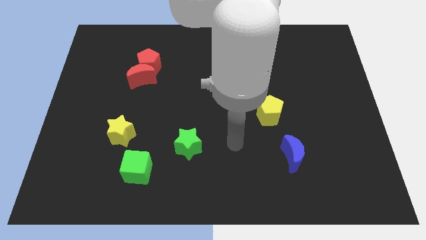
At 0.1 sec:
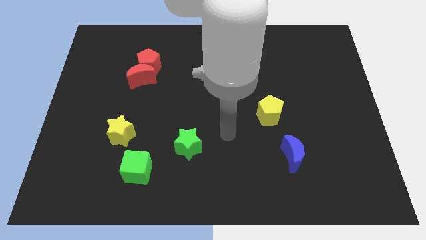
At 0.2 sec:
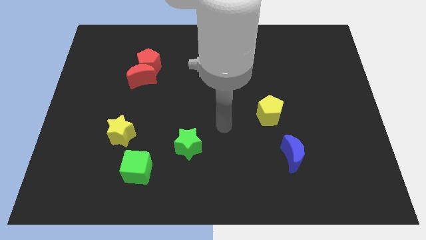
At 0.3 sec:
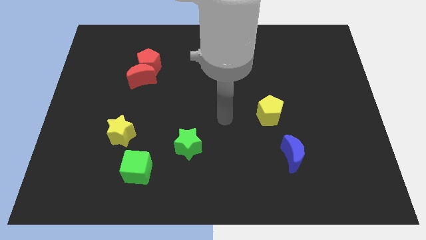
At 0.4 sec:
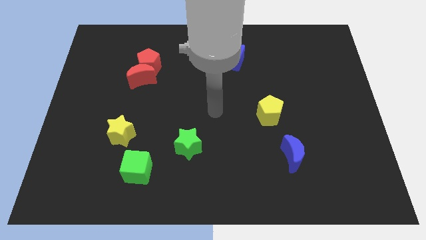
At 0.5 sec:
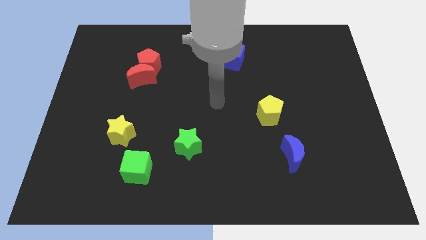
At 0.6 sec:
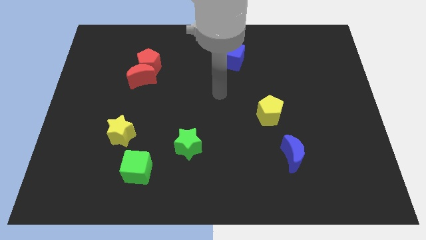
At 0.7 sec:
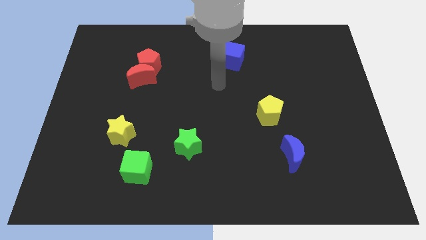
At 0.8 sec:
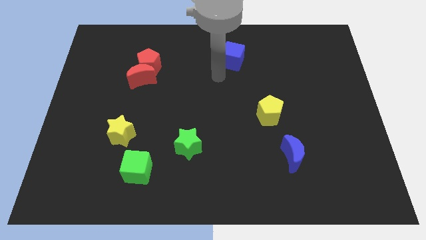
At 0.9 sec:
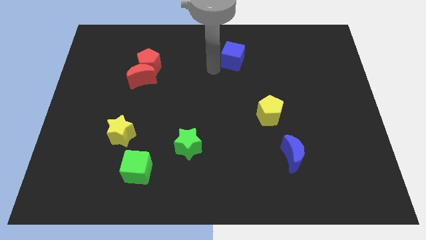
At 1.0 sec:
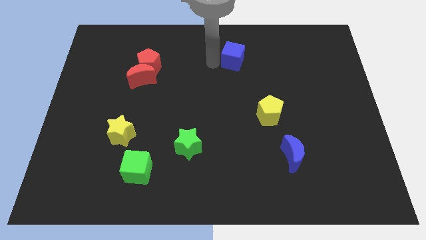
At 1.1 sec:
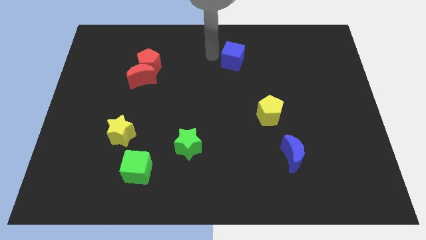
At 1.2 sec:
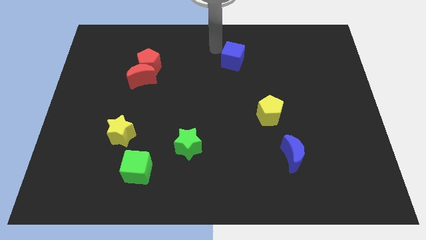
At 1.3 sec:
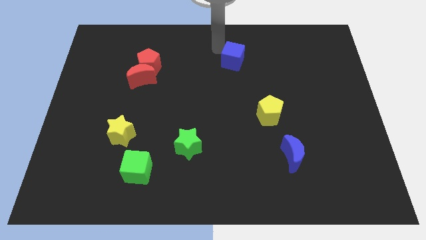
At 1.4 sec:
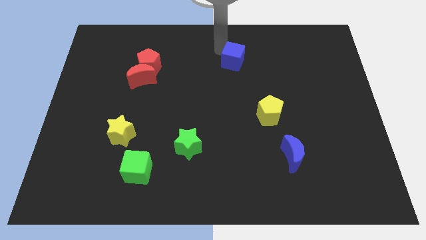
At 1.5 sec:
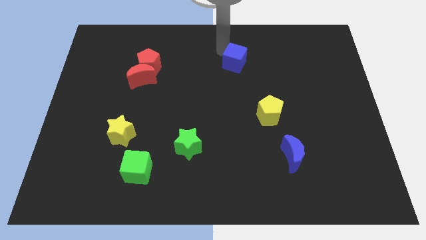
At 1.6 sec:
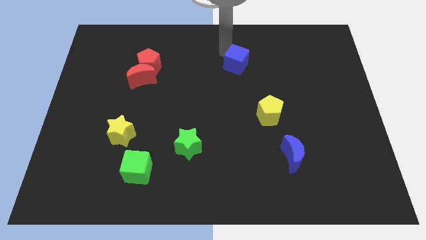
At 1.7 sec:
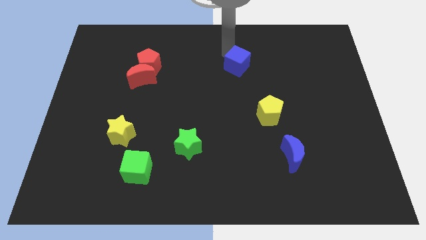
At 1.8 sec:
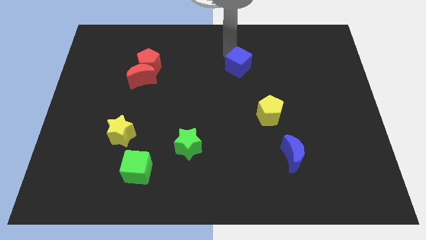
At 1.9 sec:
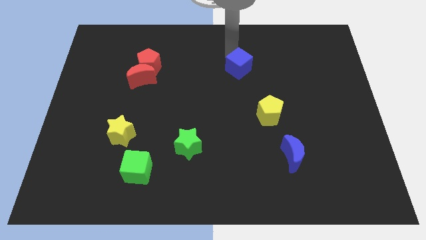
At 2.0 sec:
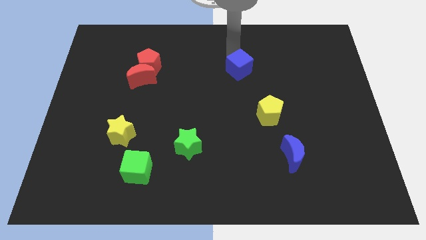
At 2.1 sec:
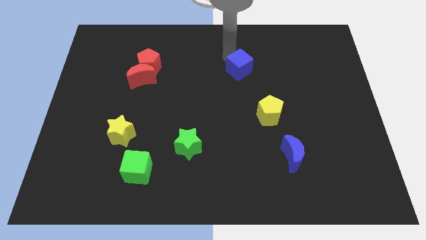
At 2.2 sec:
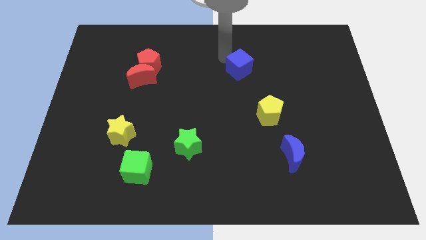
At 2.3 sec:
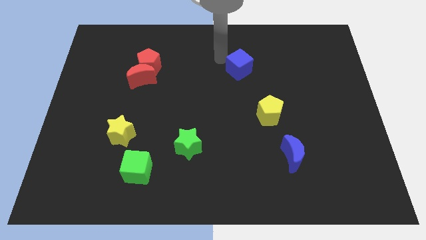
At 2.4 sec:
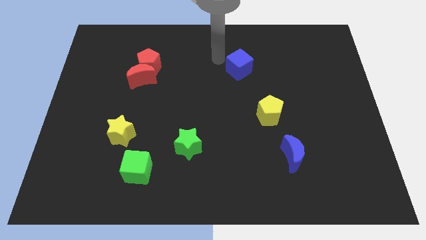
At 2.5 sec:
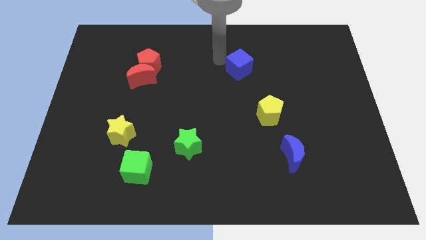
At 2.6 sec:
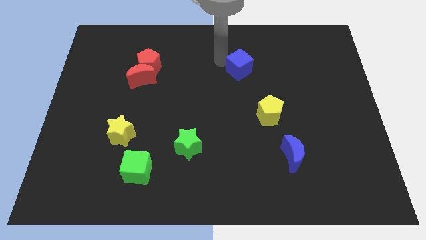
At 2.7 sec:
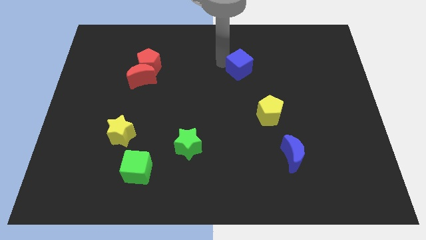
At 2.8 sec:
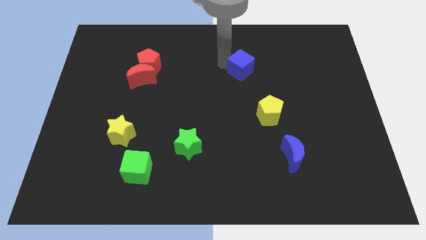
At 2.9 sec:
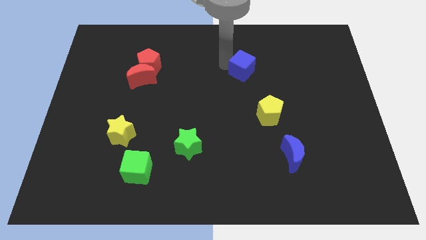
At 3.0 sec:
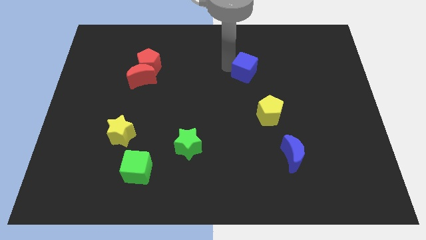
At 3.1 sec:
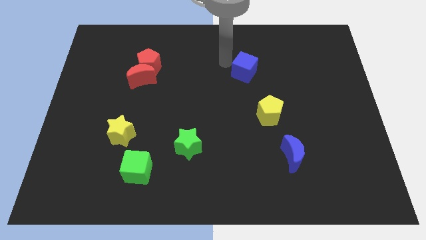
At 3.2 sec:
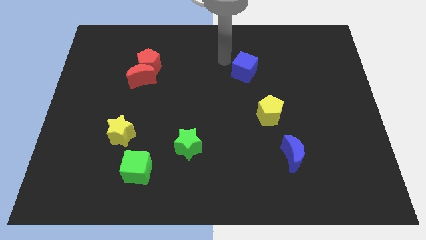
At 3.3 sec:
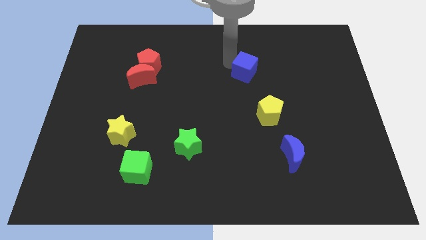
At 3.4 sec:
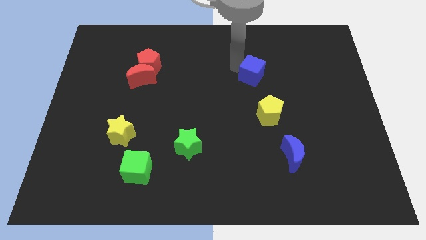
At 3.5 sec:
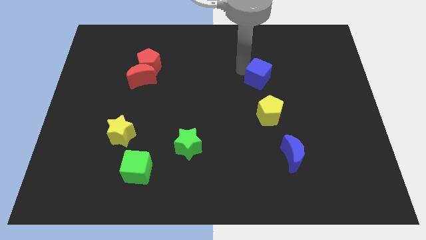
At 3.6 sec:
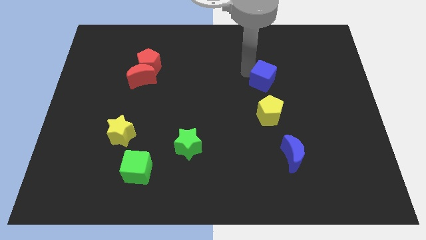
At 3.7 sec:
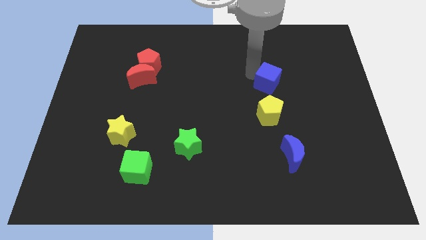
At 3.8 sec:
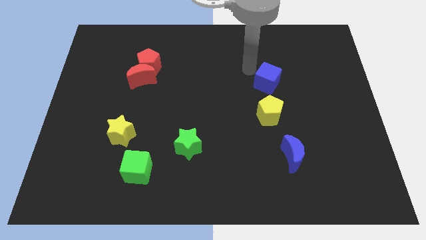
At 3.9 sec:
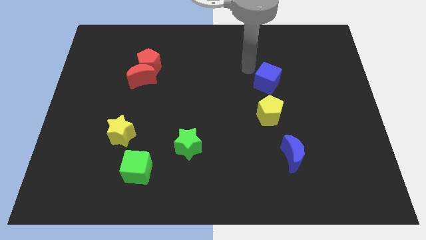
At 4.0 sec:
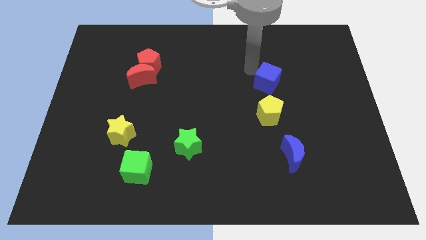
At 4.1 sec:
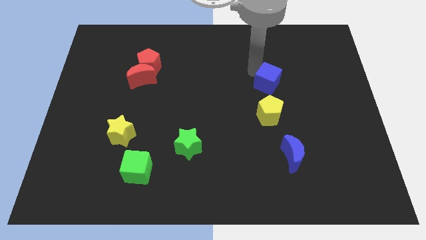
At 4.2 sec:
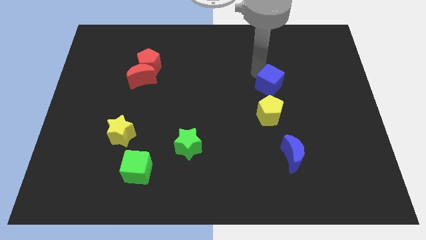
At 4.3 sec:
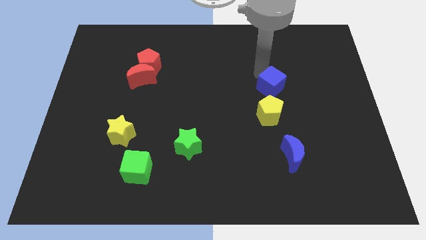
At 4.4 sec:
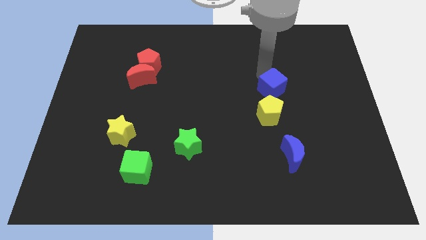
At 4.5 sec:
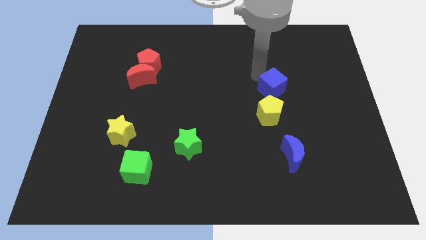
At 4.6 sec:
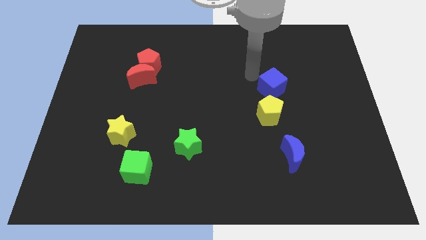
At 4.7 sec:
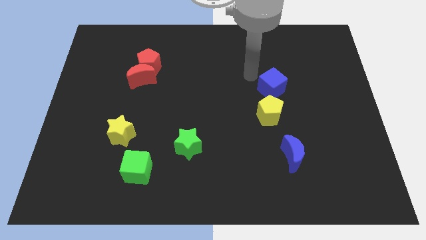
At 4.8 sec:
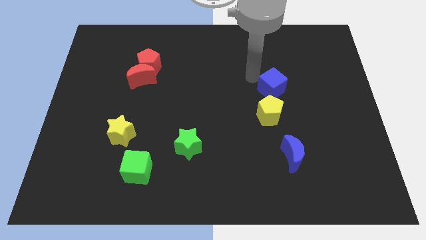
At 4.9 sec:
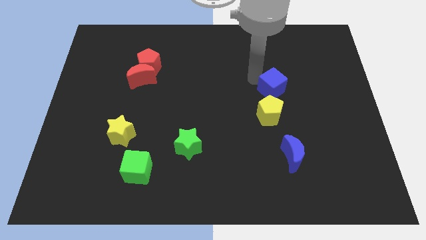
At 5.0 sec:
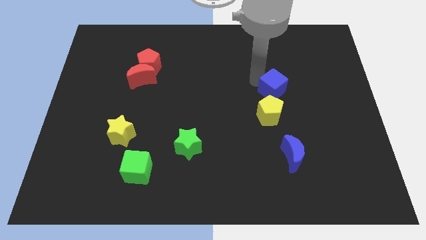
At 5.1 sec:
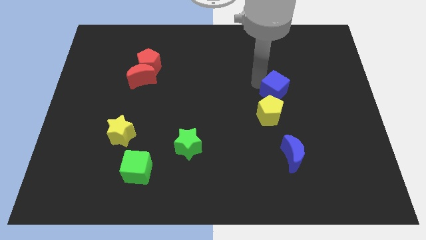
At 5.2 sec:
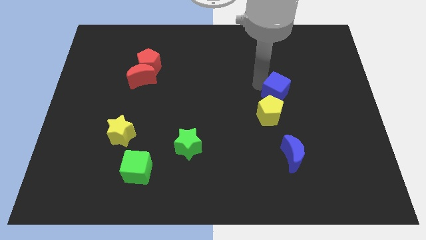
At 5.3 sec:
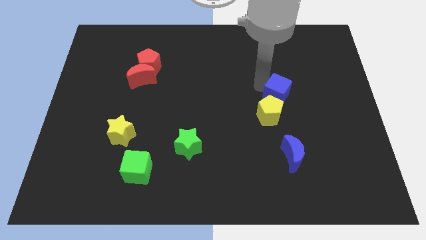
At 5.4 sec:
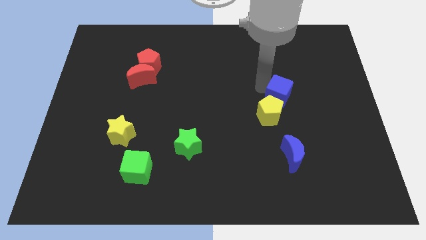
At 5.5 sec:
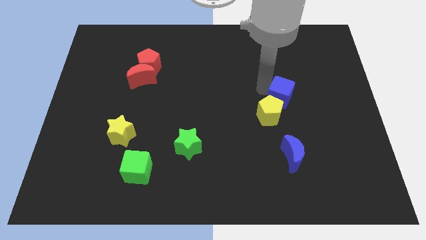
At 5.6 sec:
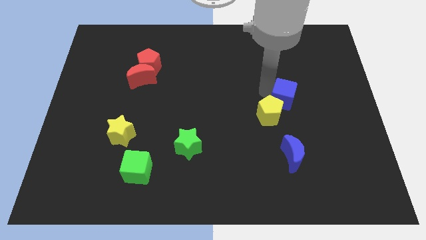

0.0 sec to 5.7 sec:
put the blue cube just right of the yellow pentagon

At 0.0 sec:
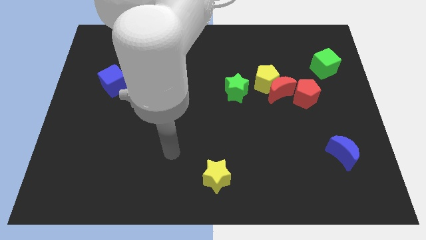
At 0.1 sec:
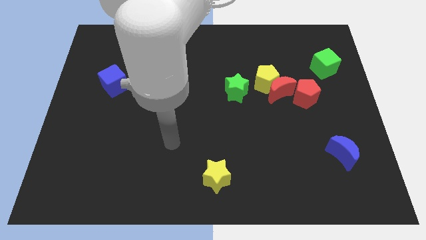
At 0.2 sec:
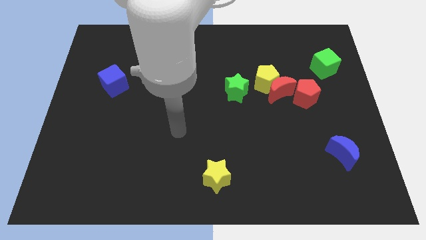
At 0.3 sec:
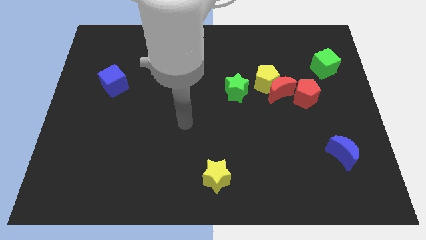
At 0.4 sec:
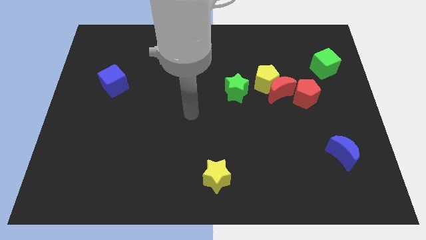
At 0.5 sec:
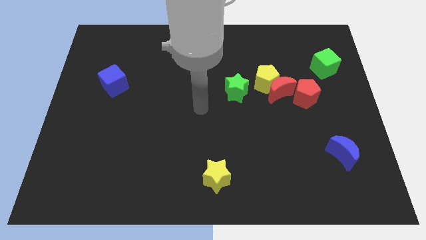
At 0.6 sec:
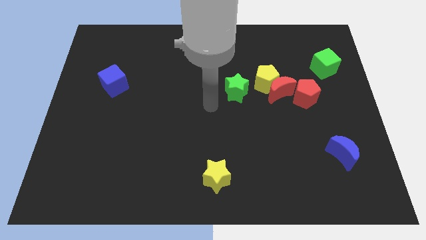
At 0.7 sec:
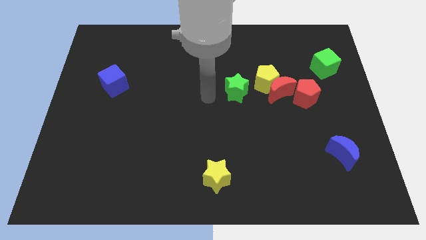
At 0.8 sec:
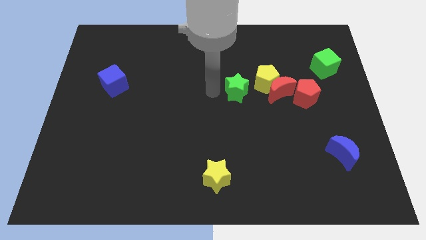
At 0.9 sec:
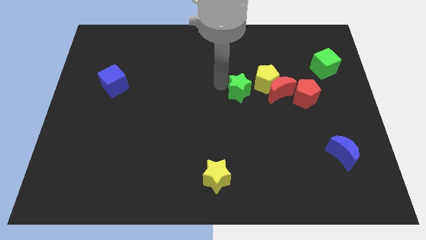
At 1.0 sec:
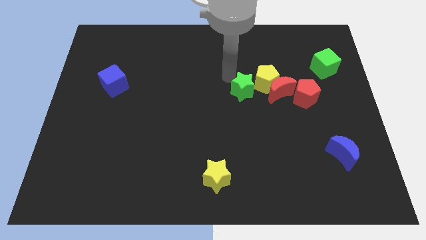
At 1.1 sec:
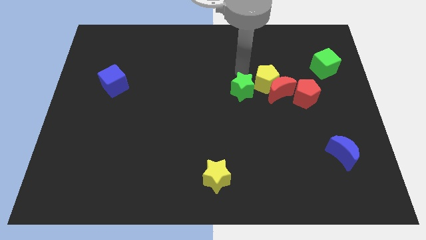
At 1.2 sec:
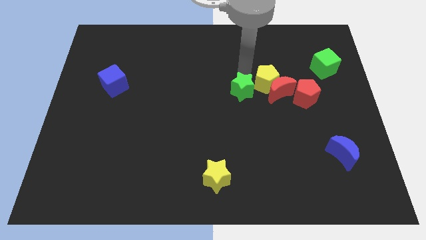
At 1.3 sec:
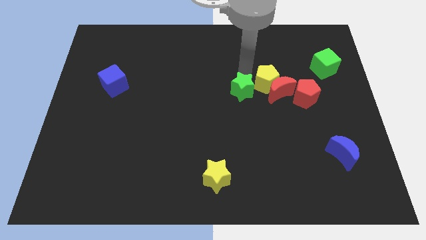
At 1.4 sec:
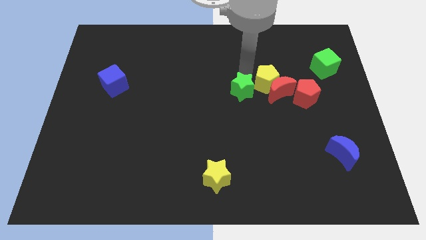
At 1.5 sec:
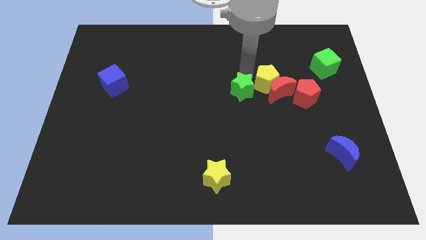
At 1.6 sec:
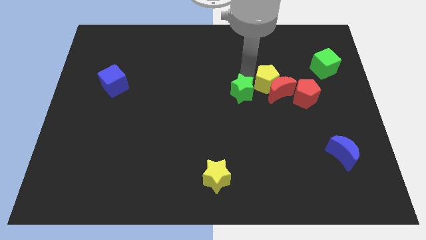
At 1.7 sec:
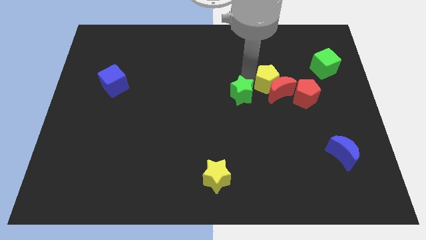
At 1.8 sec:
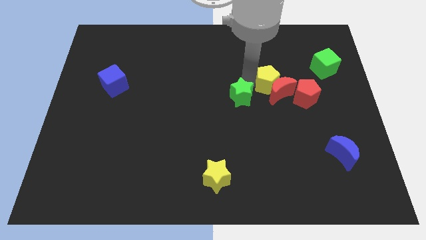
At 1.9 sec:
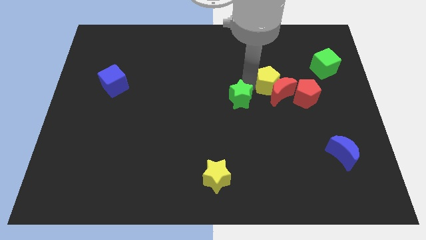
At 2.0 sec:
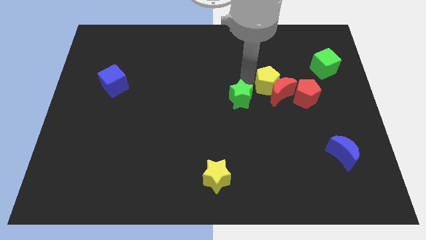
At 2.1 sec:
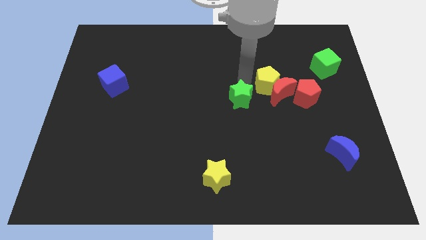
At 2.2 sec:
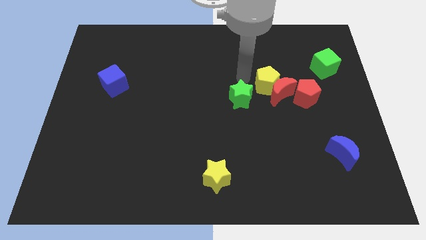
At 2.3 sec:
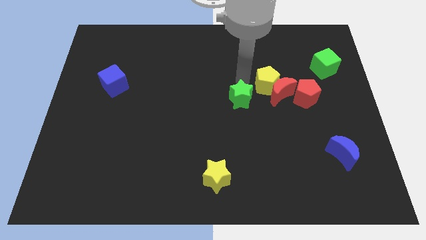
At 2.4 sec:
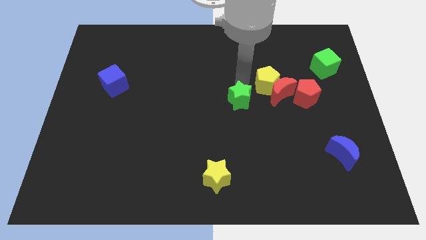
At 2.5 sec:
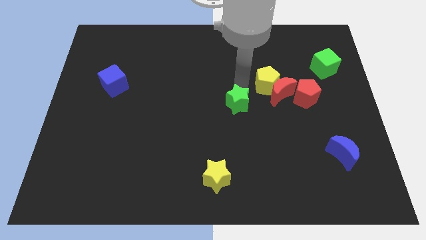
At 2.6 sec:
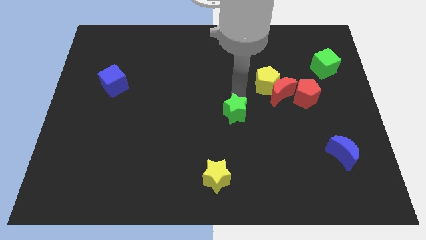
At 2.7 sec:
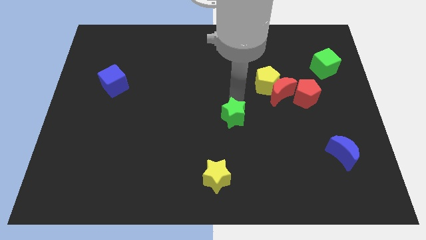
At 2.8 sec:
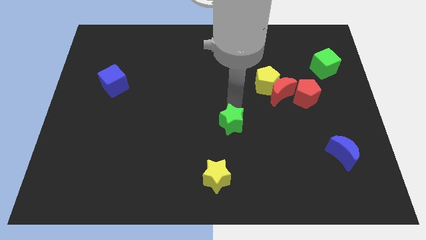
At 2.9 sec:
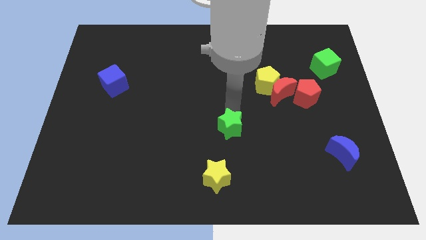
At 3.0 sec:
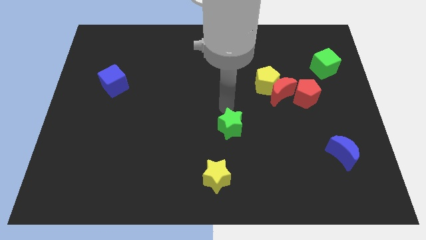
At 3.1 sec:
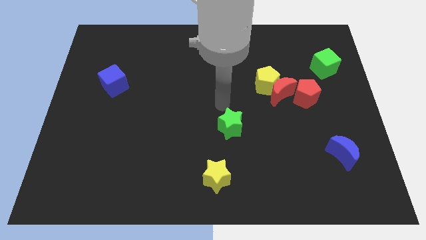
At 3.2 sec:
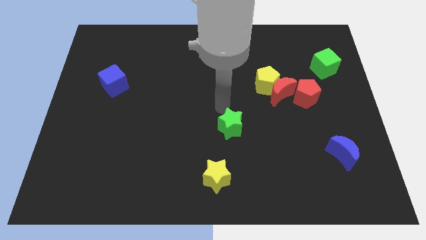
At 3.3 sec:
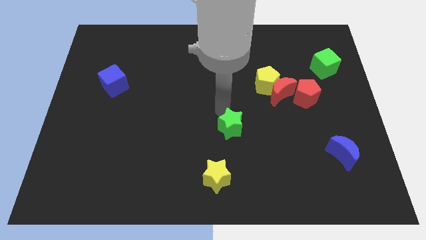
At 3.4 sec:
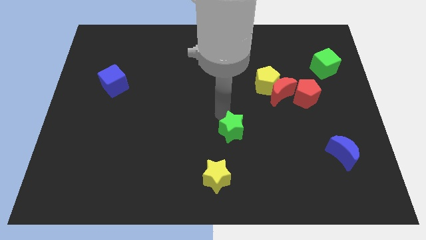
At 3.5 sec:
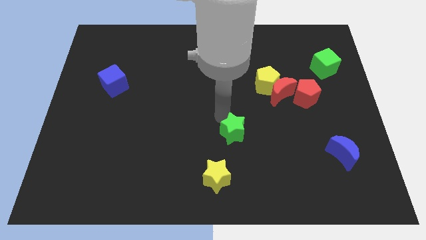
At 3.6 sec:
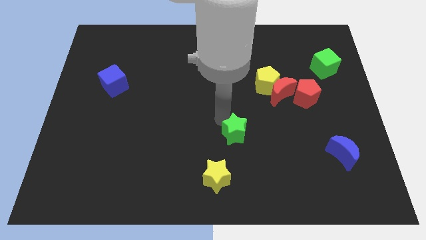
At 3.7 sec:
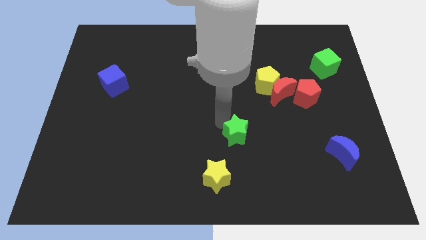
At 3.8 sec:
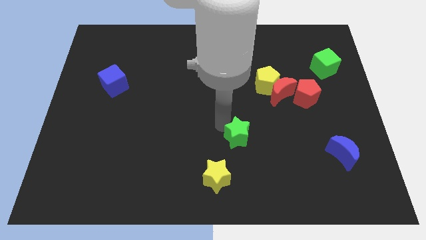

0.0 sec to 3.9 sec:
push the green star to the top right of the yellow star
